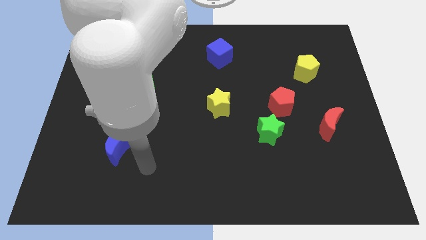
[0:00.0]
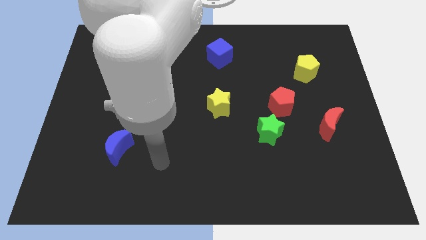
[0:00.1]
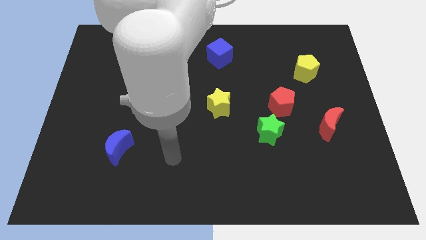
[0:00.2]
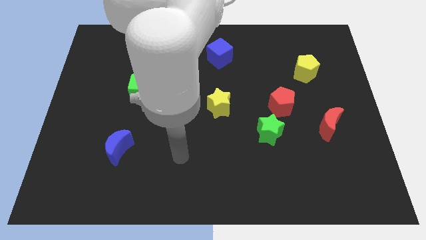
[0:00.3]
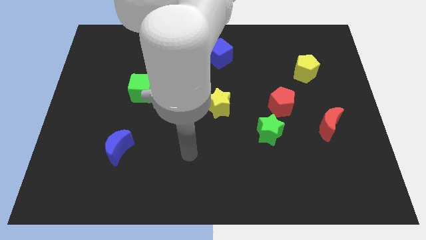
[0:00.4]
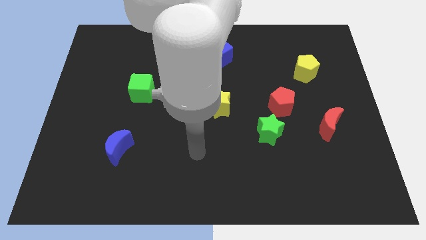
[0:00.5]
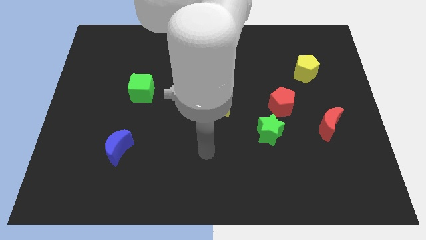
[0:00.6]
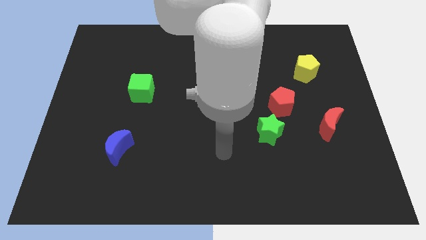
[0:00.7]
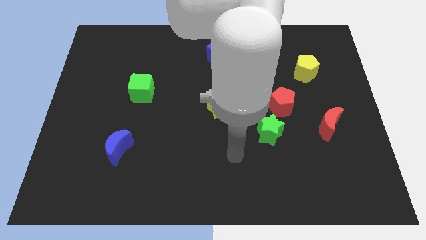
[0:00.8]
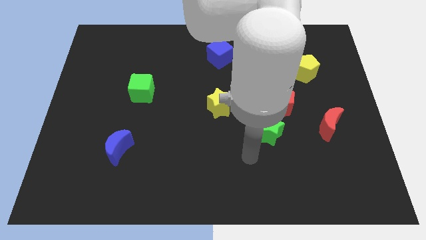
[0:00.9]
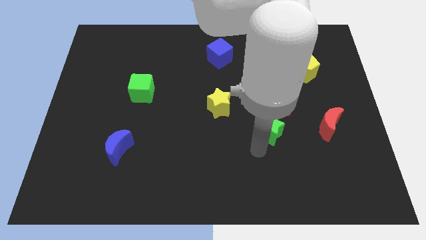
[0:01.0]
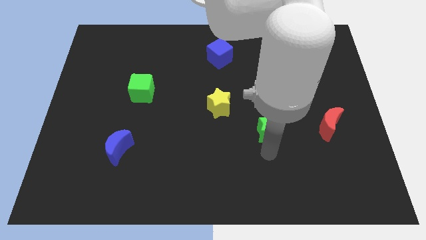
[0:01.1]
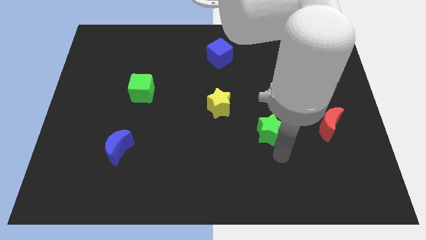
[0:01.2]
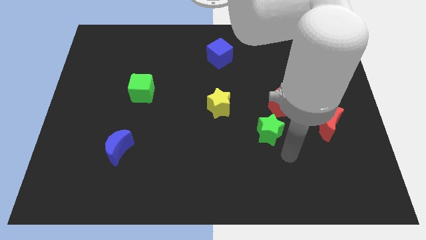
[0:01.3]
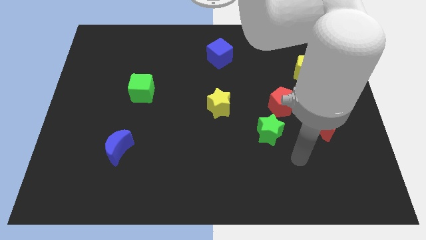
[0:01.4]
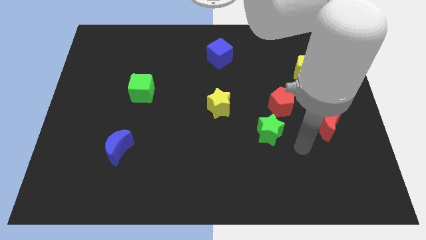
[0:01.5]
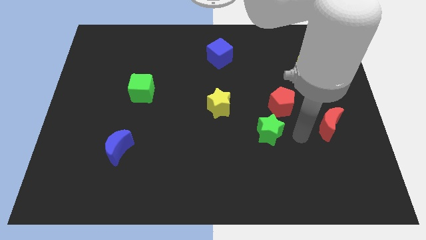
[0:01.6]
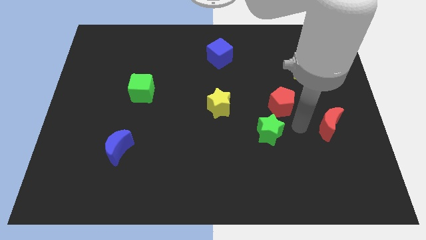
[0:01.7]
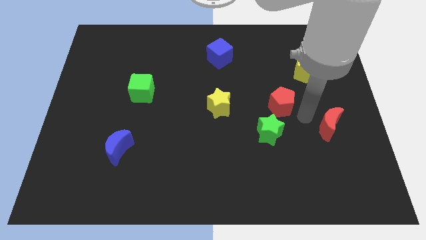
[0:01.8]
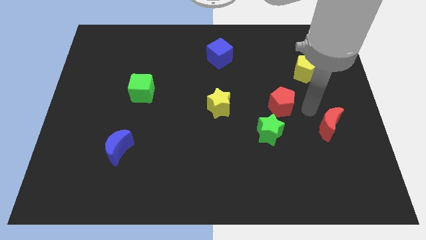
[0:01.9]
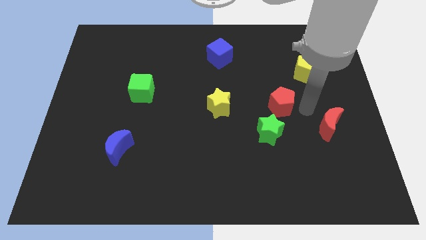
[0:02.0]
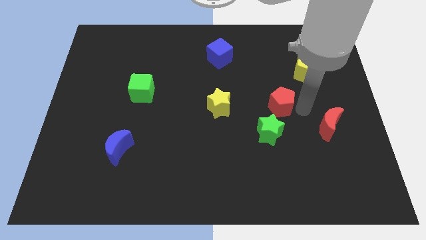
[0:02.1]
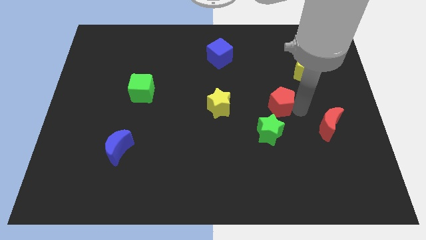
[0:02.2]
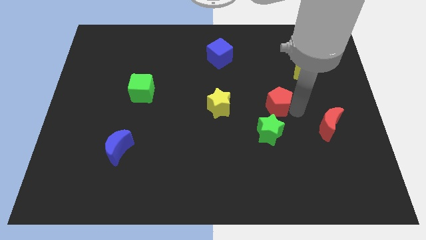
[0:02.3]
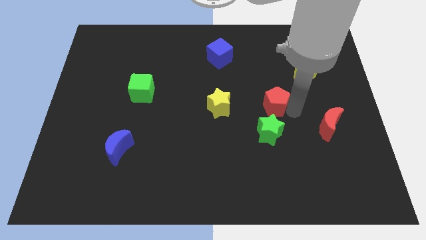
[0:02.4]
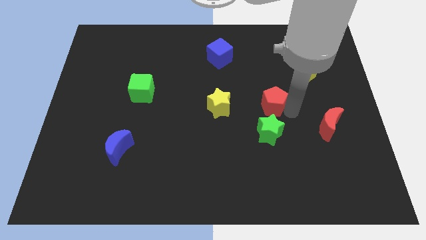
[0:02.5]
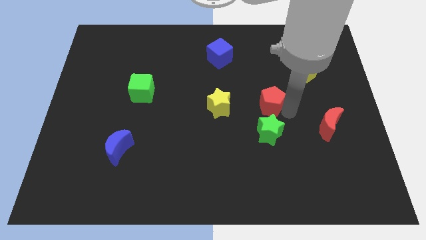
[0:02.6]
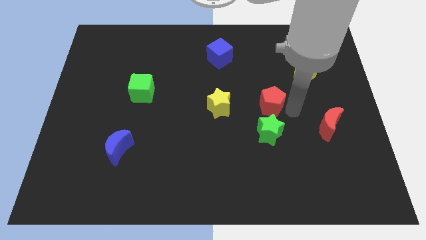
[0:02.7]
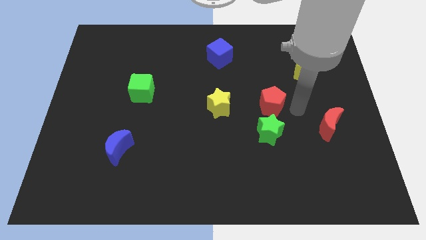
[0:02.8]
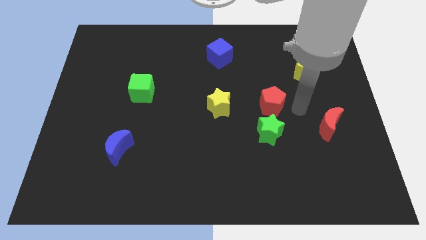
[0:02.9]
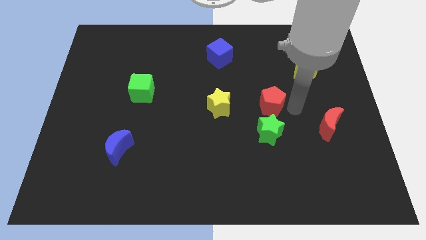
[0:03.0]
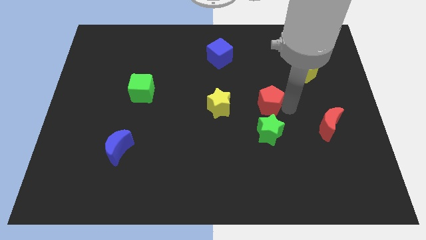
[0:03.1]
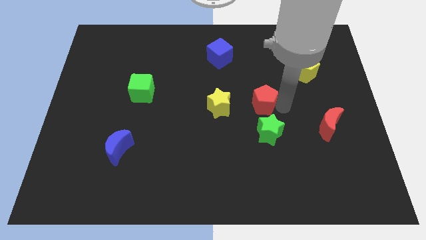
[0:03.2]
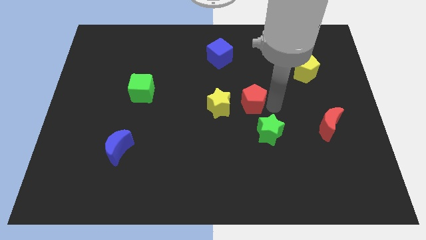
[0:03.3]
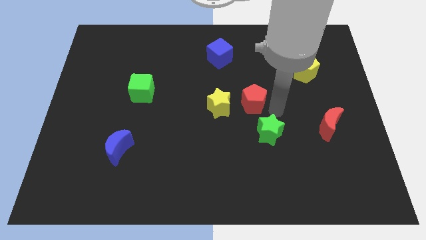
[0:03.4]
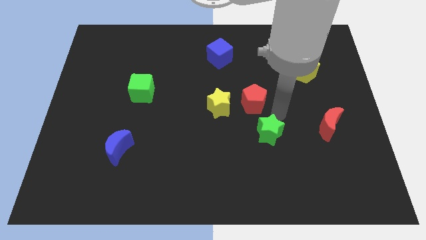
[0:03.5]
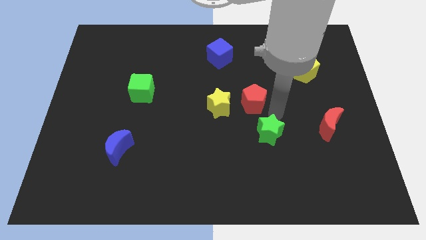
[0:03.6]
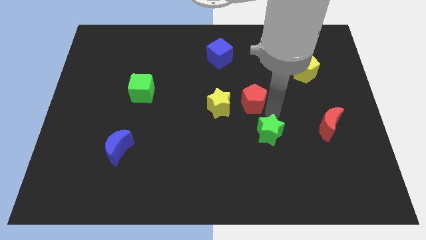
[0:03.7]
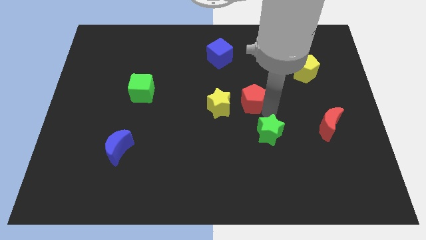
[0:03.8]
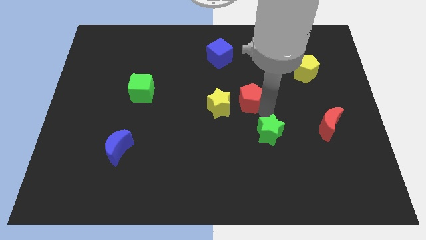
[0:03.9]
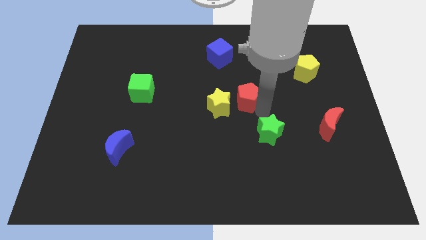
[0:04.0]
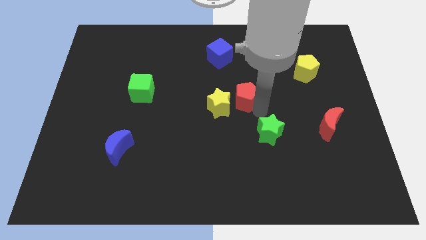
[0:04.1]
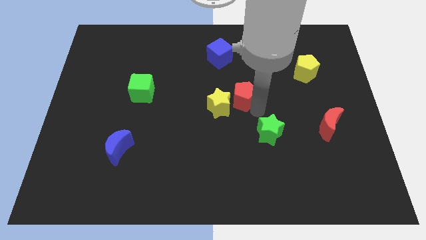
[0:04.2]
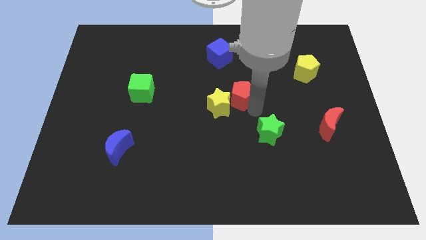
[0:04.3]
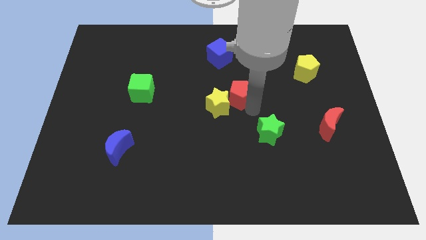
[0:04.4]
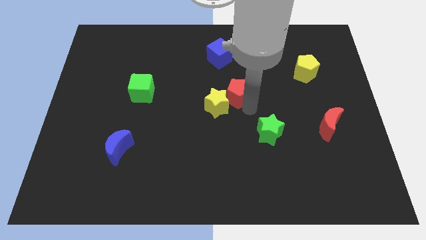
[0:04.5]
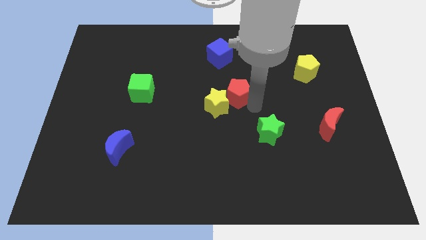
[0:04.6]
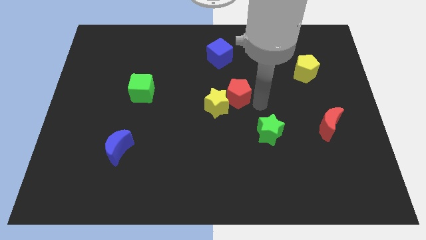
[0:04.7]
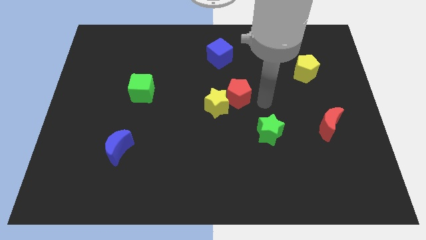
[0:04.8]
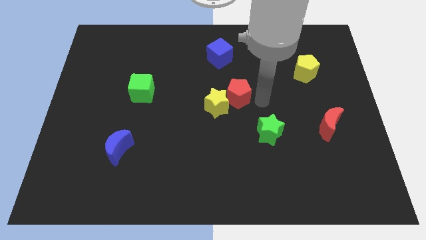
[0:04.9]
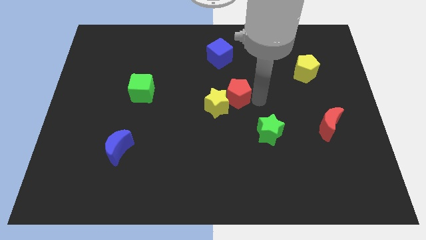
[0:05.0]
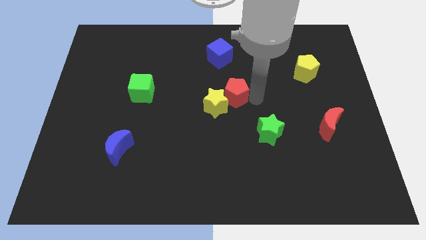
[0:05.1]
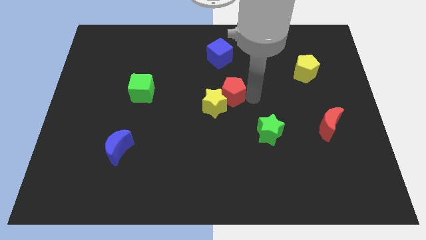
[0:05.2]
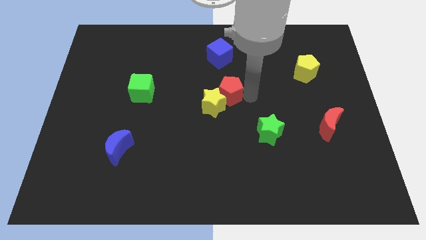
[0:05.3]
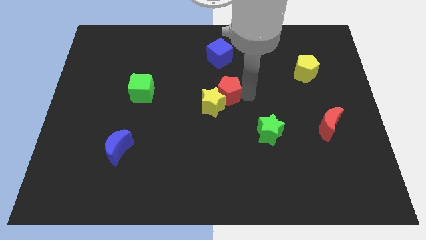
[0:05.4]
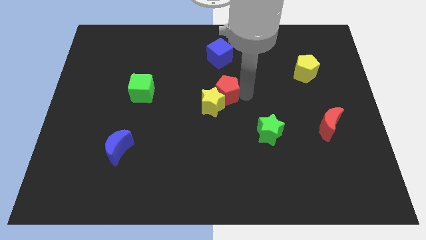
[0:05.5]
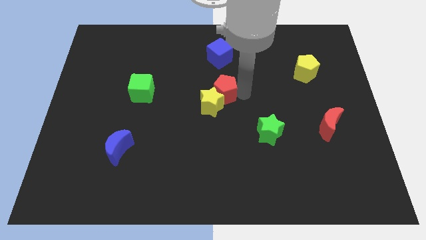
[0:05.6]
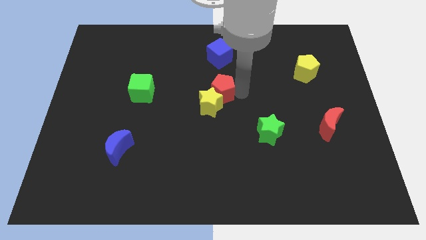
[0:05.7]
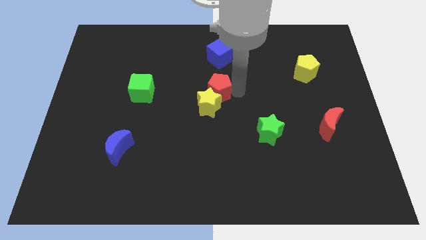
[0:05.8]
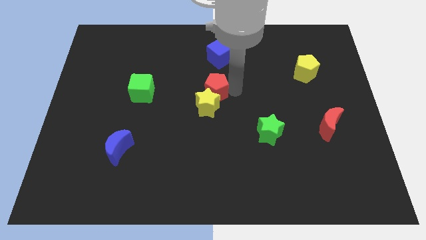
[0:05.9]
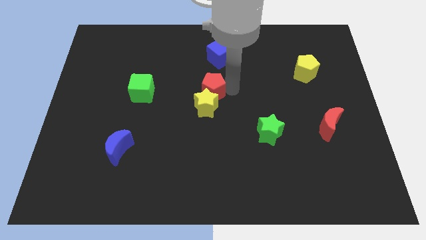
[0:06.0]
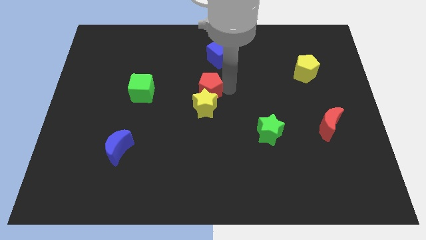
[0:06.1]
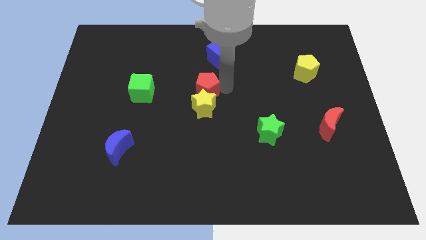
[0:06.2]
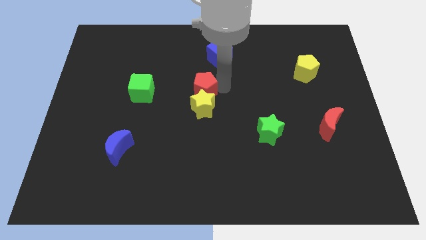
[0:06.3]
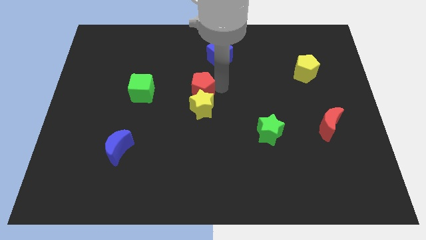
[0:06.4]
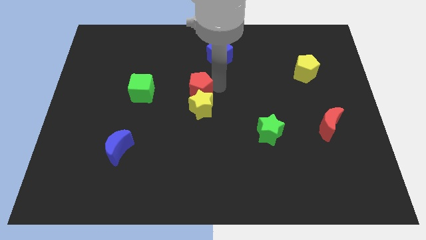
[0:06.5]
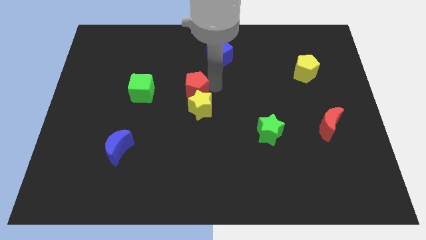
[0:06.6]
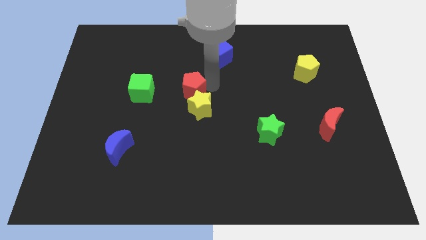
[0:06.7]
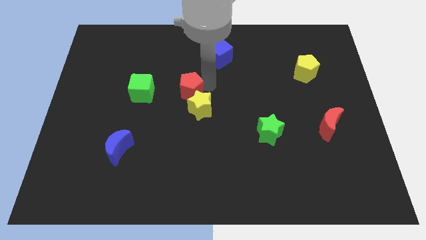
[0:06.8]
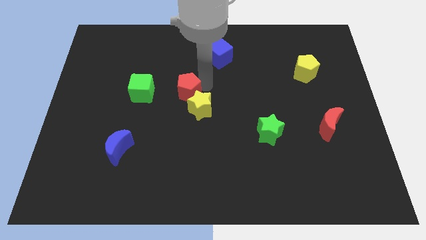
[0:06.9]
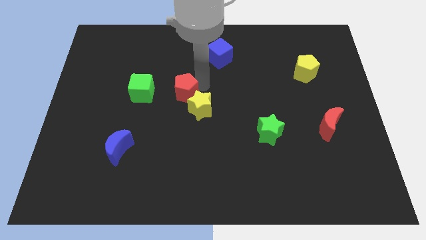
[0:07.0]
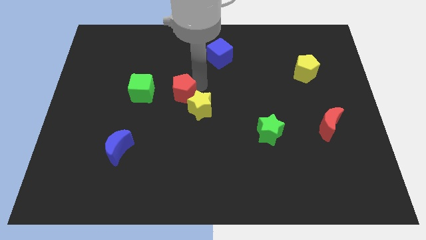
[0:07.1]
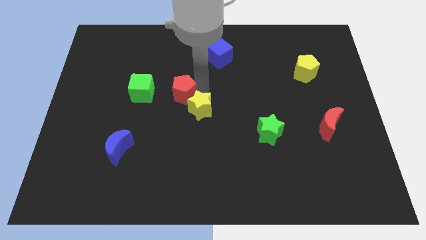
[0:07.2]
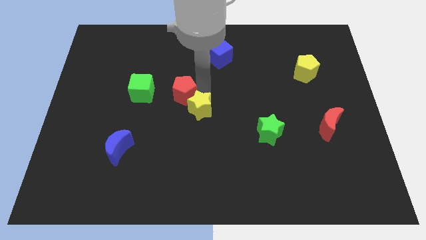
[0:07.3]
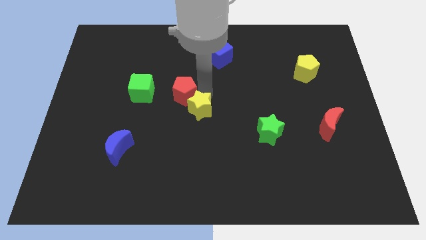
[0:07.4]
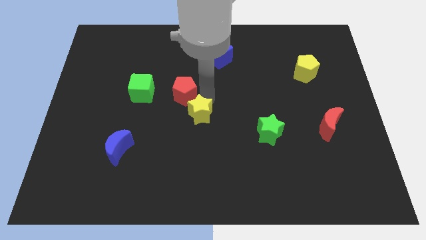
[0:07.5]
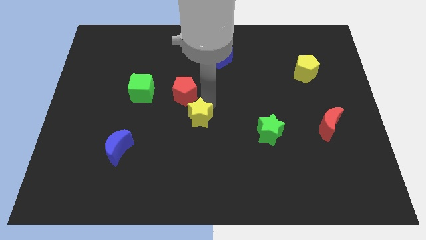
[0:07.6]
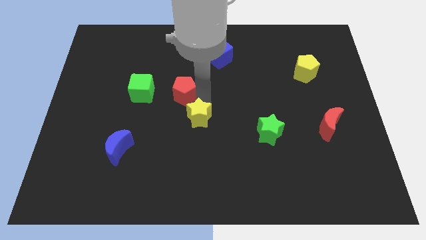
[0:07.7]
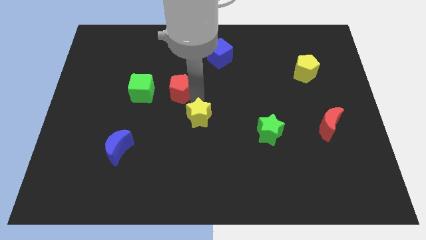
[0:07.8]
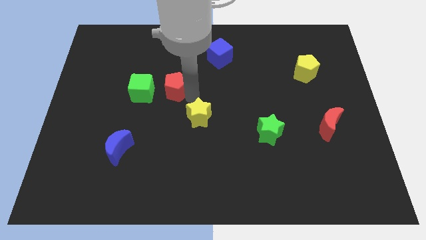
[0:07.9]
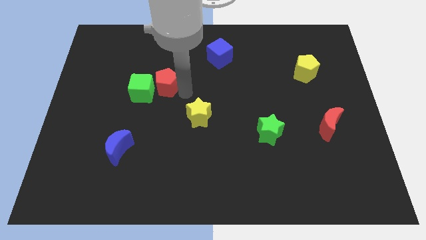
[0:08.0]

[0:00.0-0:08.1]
move the red pentagon next to the green cube
